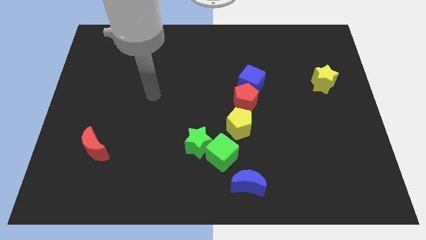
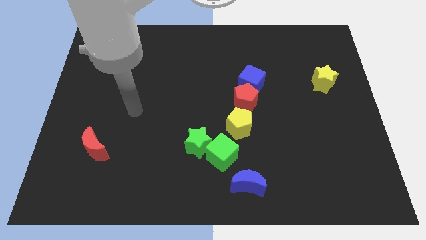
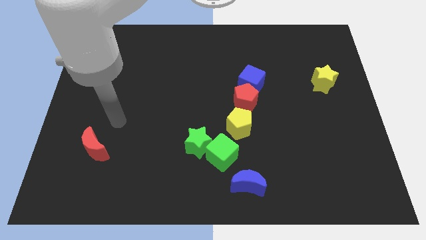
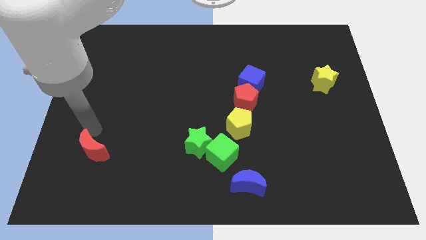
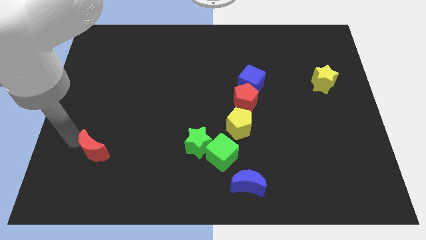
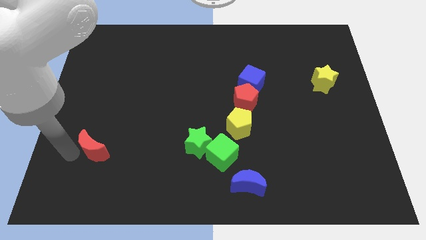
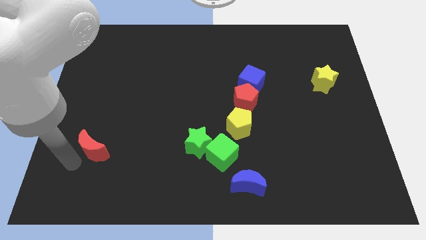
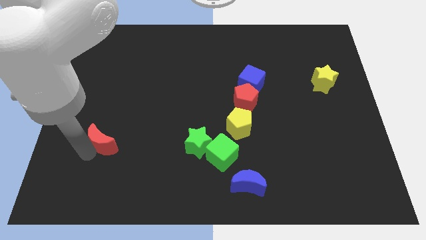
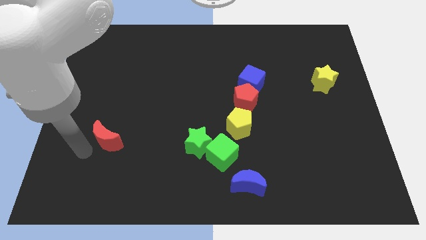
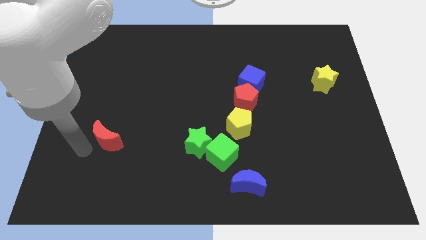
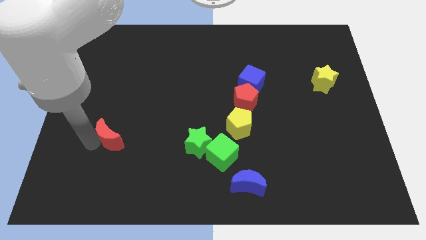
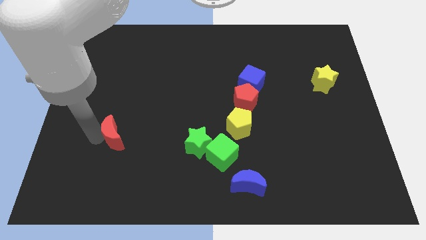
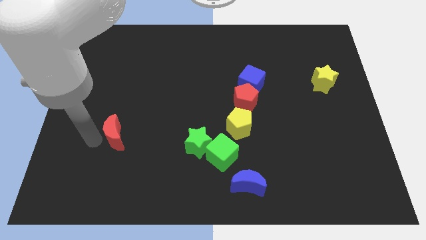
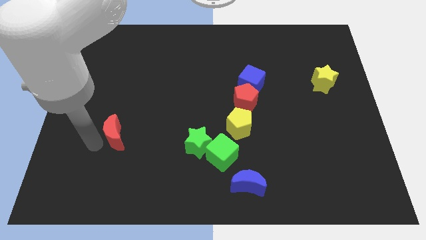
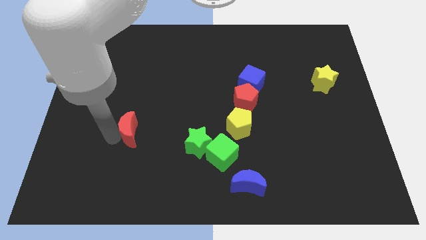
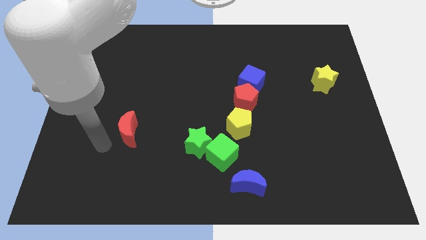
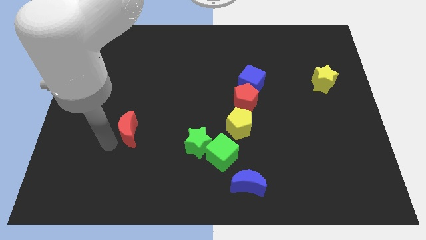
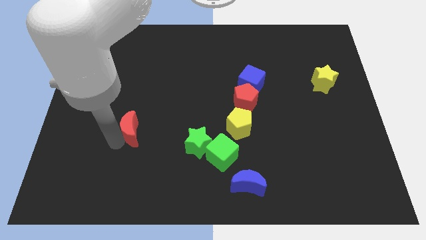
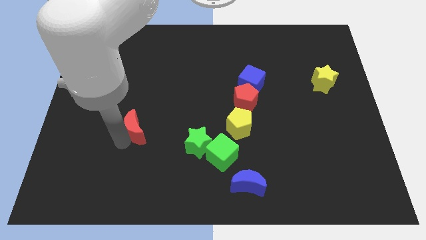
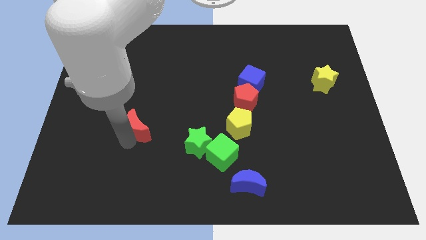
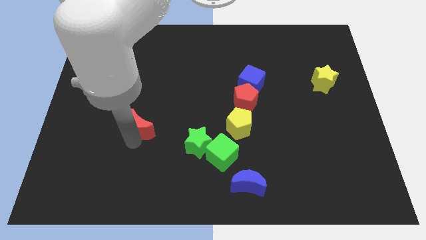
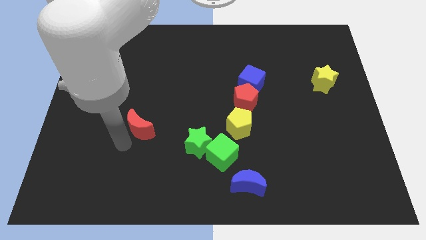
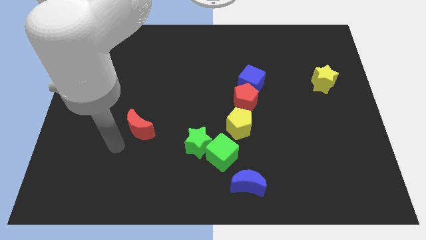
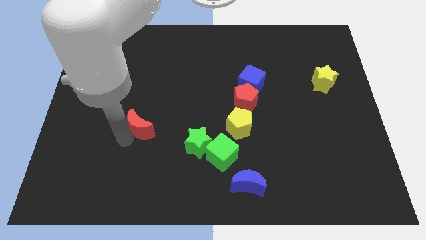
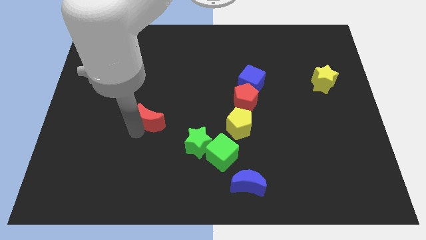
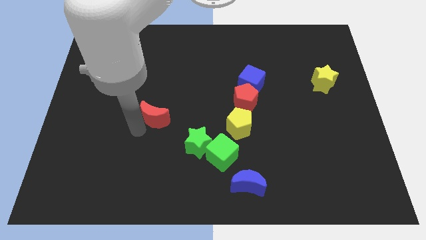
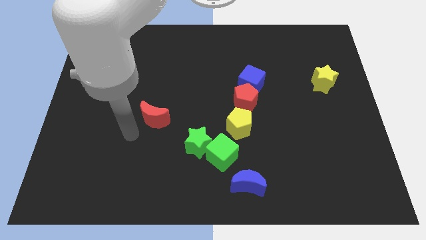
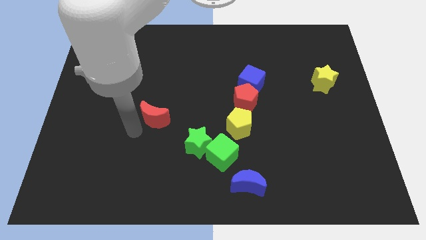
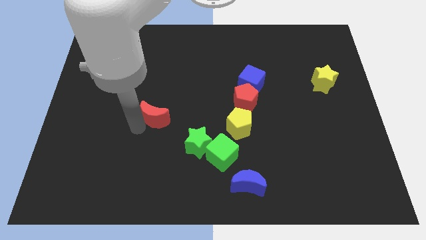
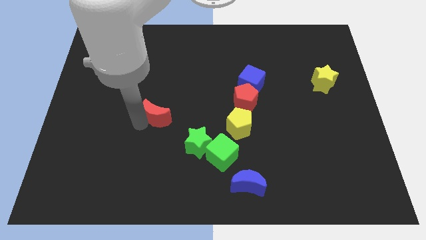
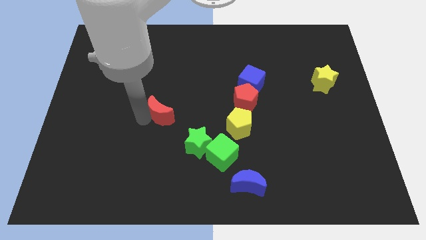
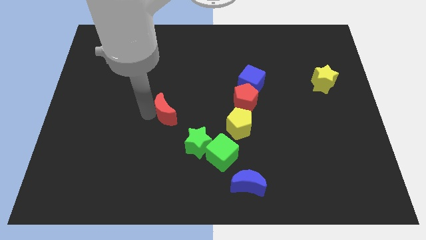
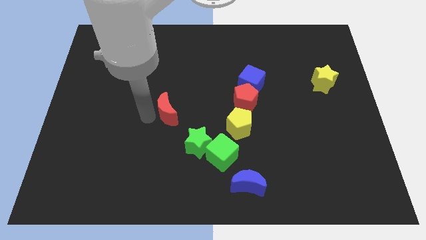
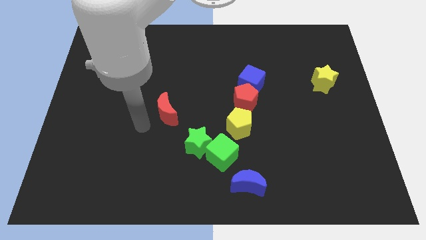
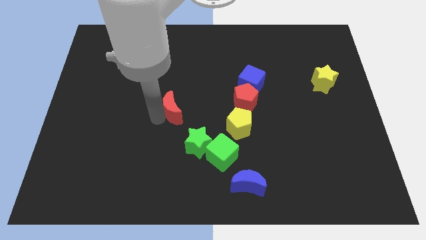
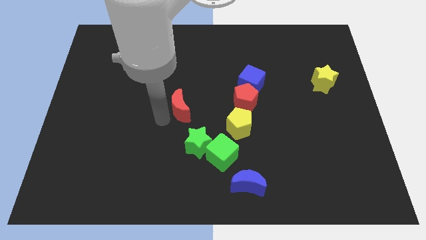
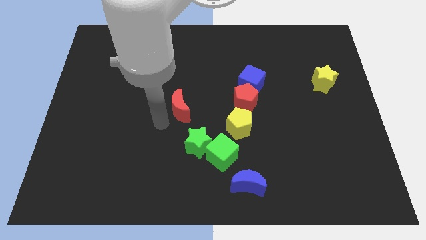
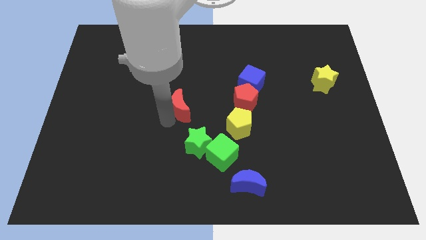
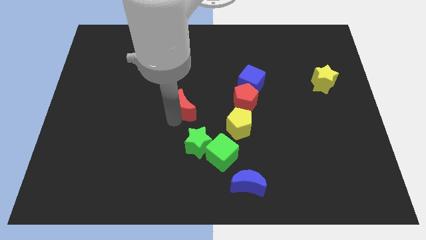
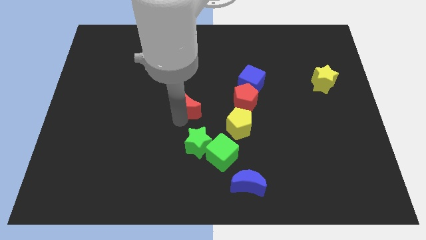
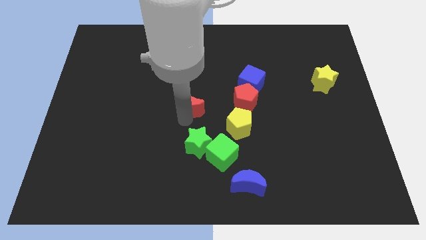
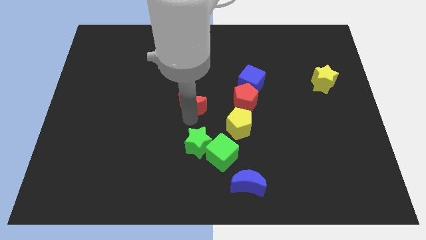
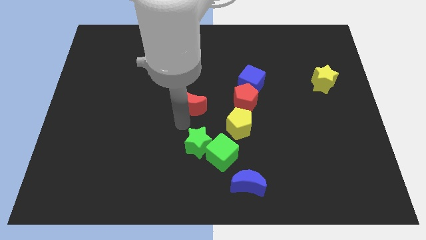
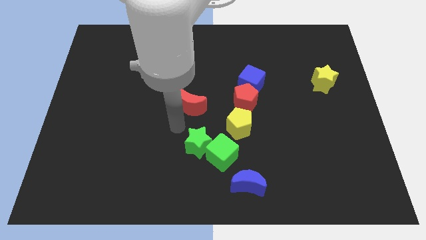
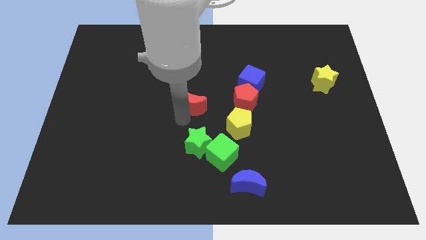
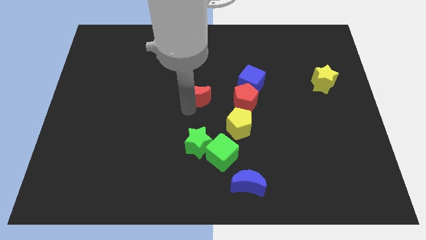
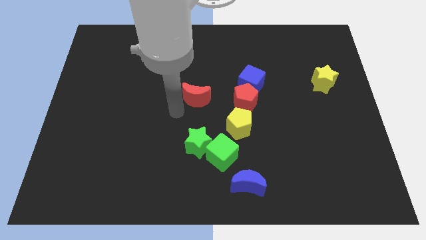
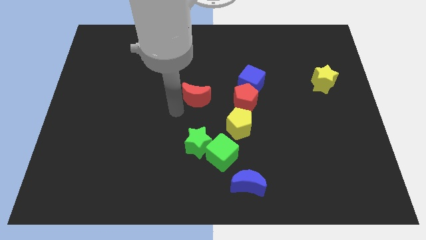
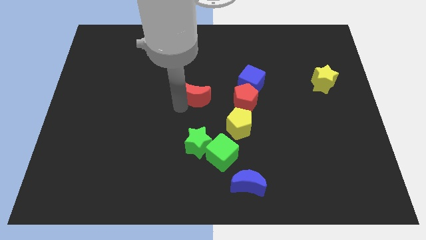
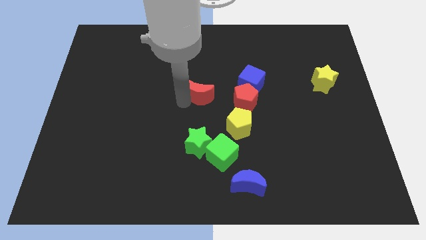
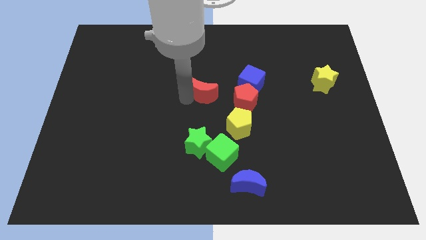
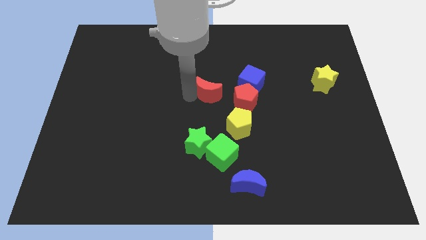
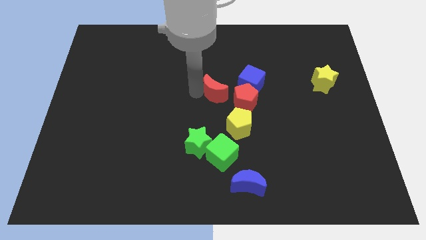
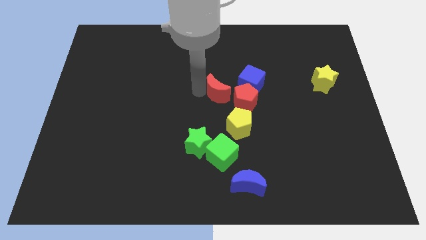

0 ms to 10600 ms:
push the red moon to the top side of the yellow pentagon

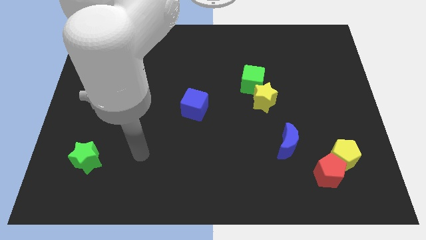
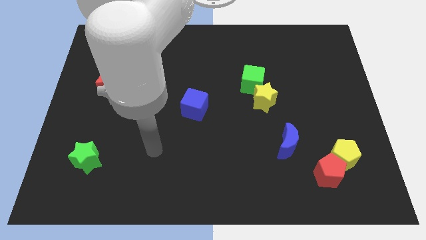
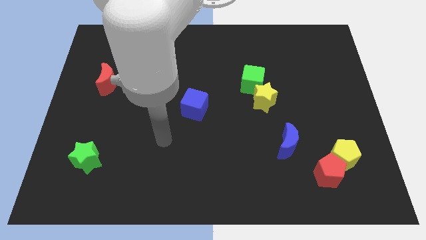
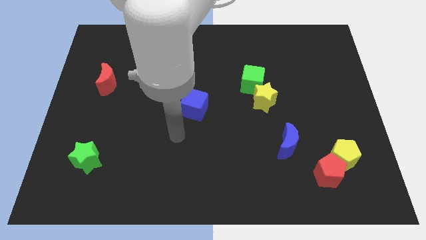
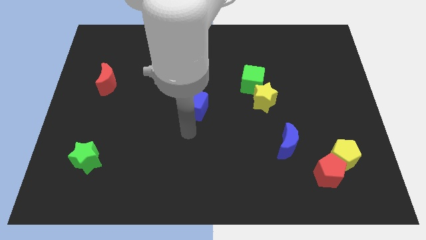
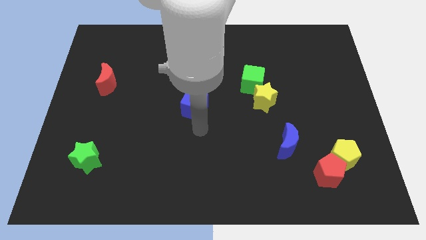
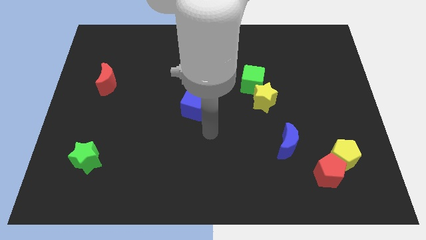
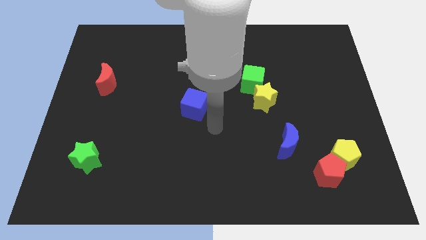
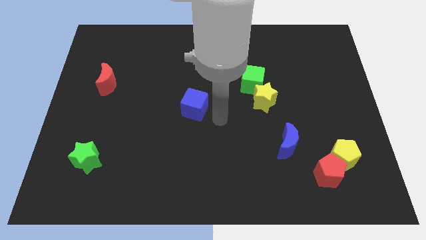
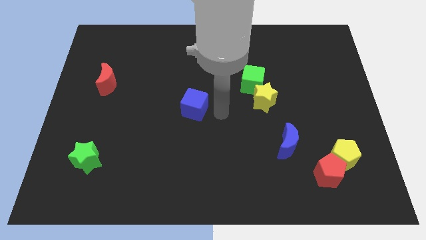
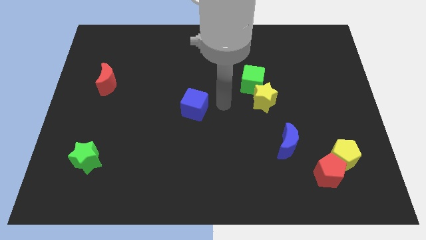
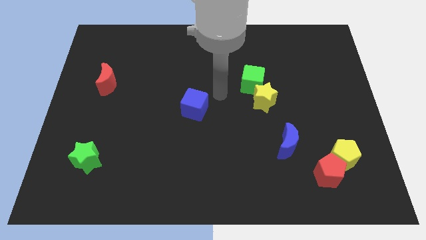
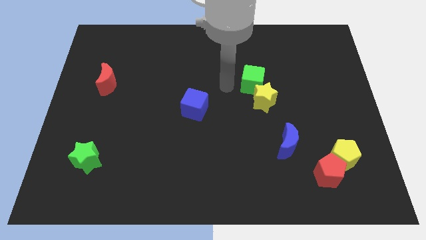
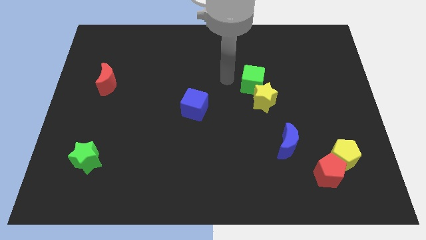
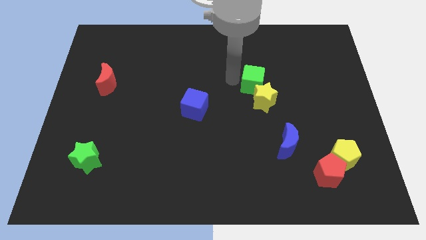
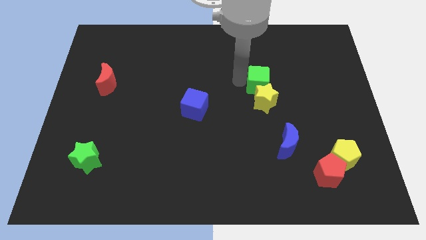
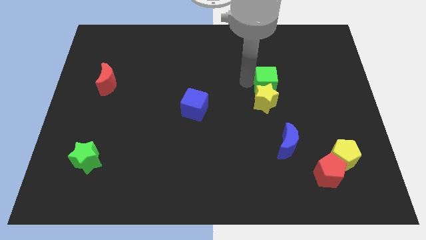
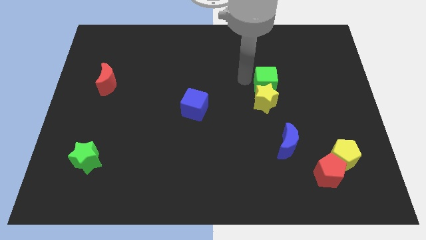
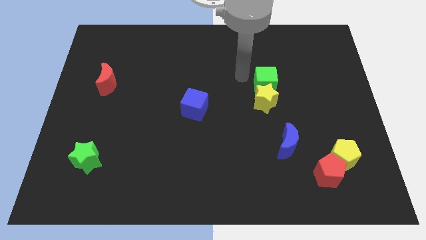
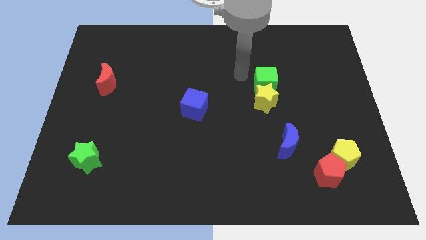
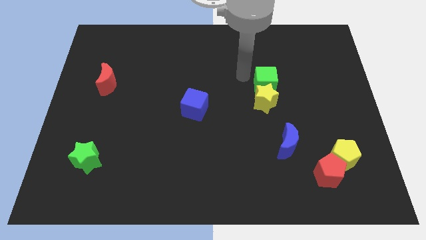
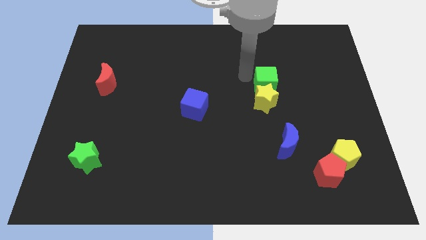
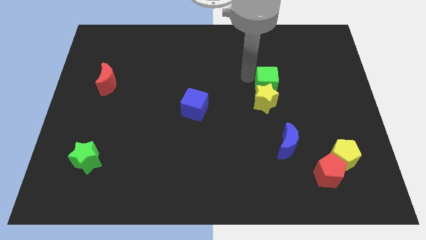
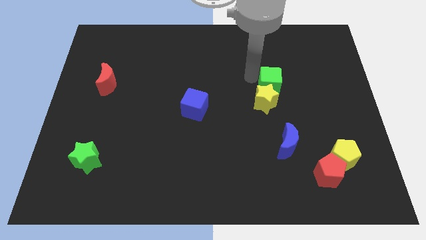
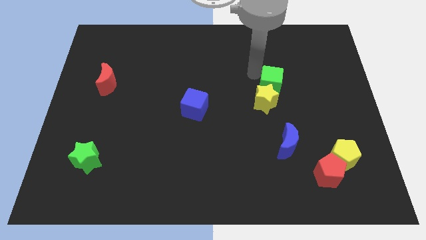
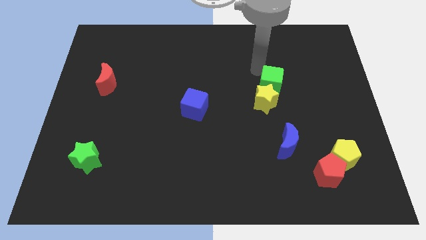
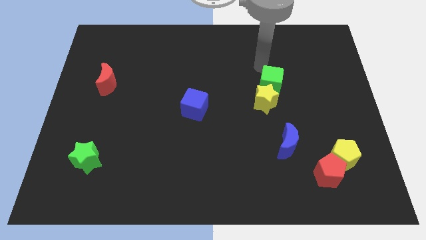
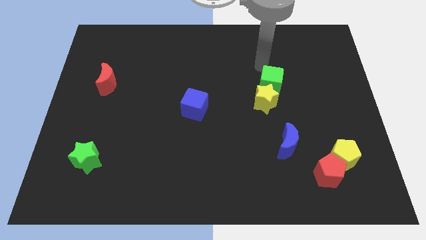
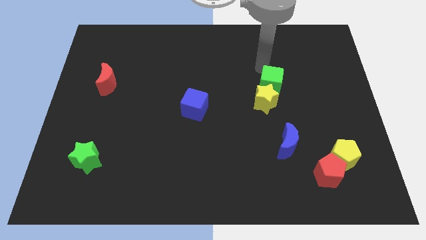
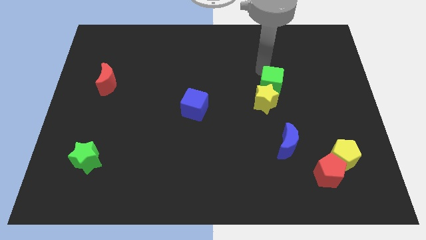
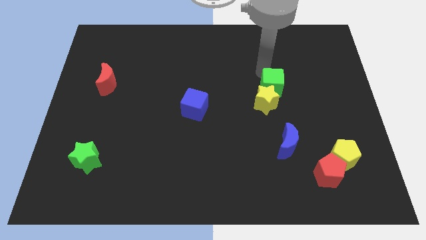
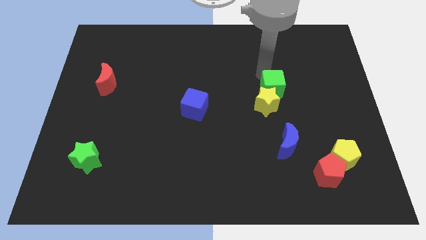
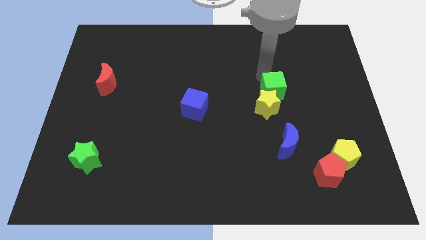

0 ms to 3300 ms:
put the green cube to the top of the blue moon
